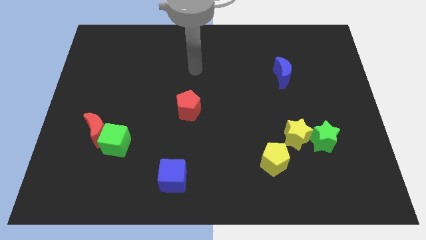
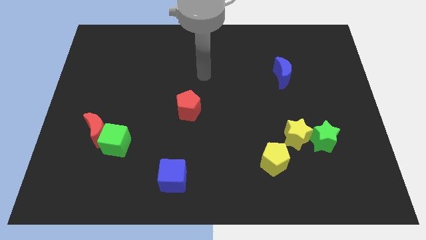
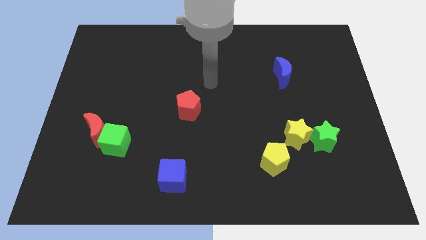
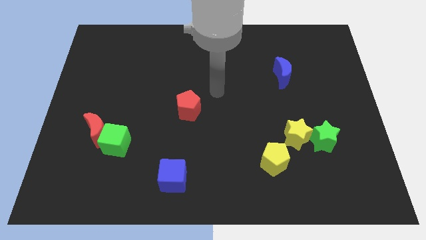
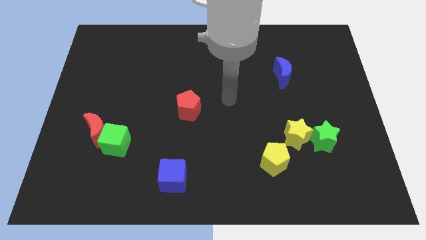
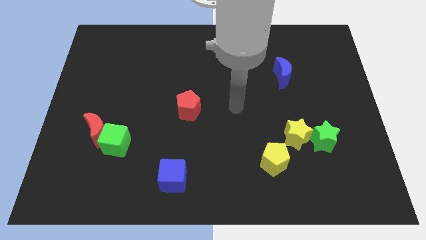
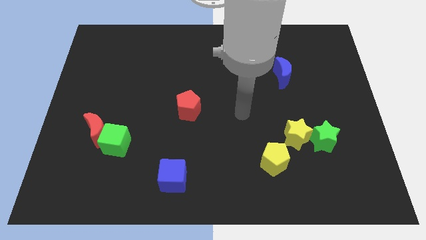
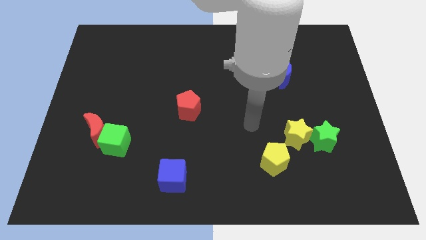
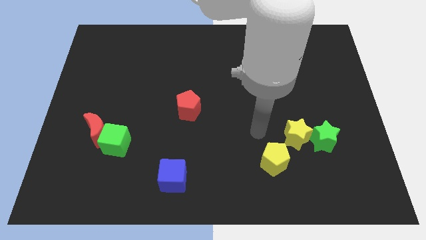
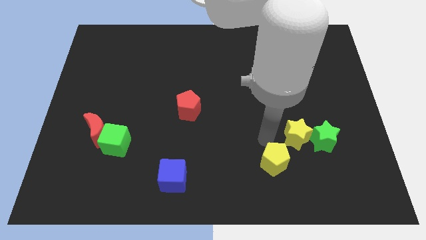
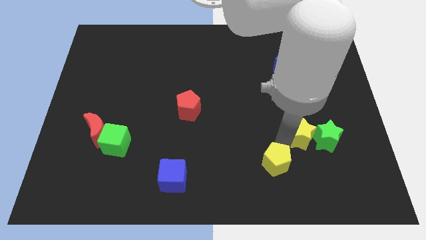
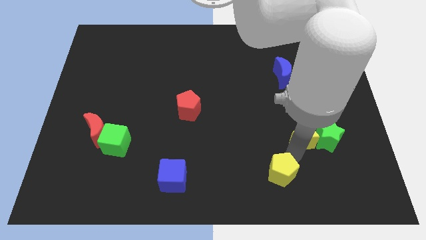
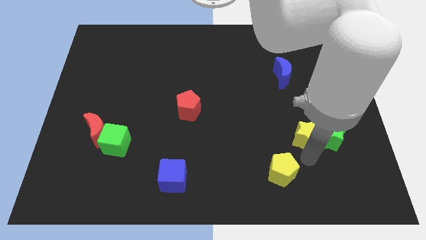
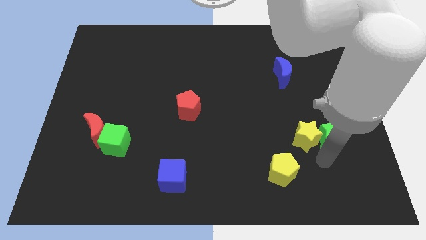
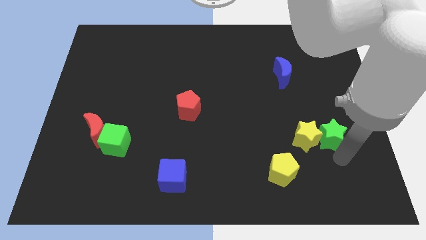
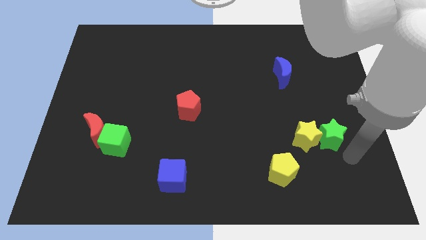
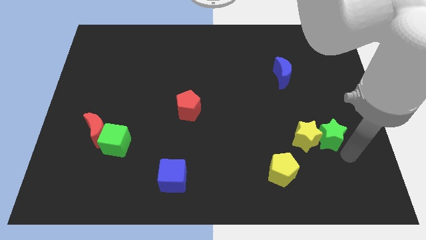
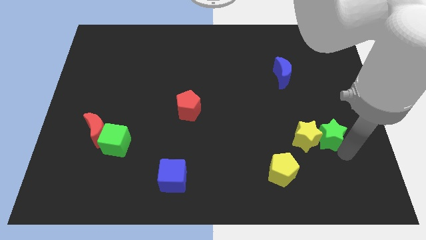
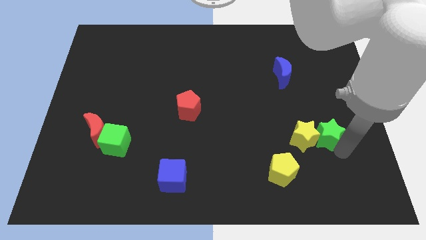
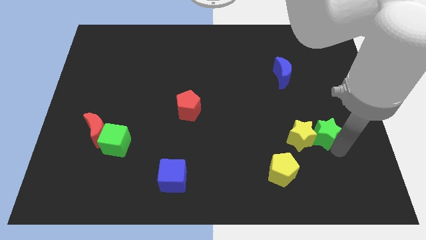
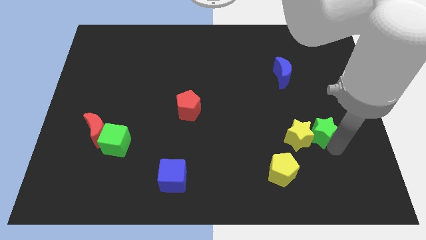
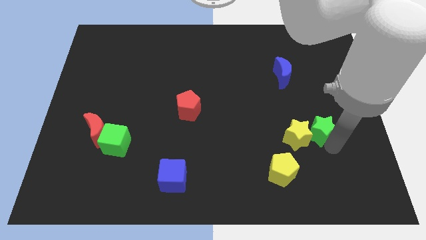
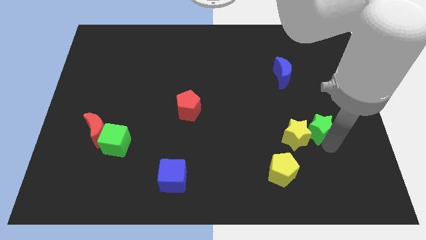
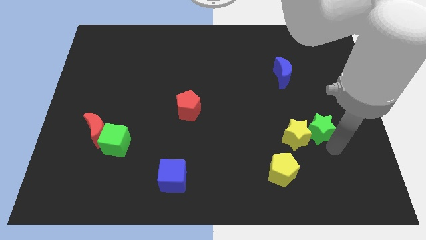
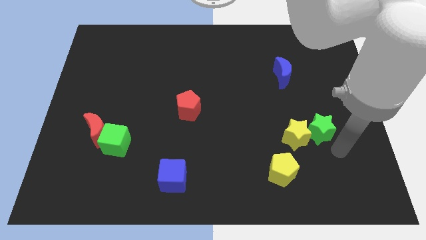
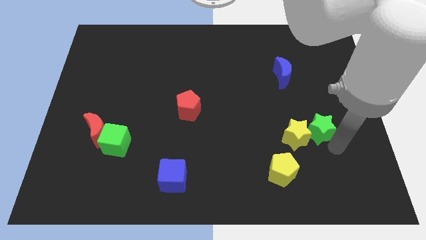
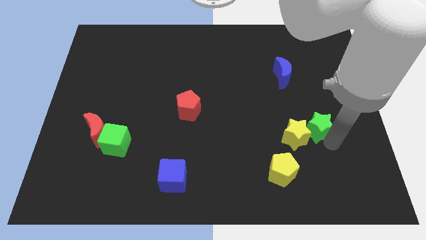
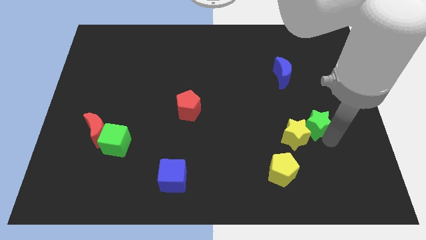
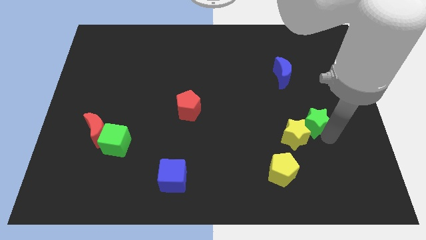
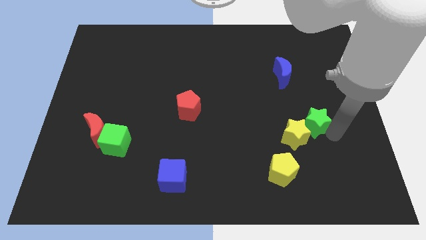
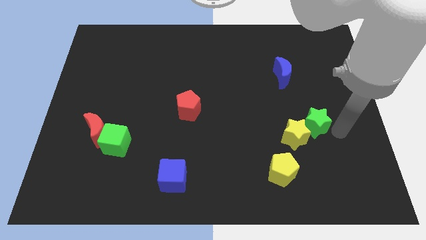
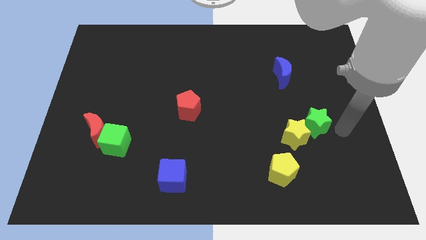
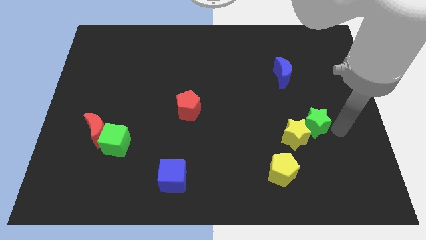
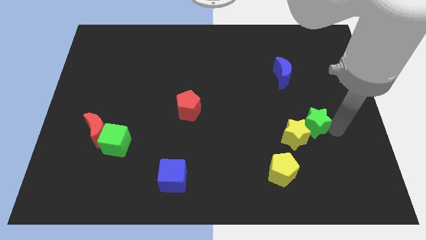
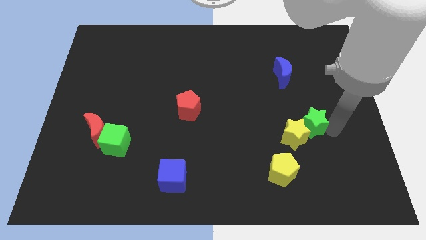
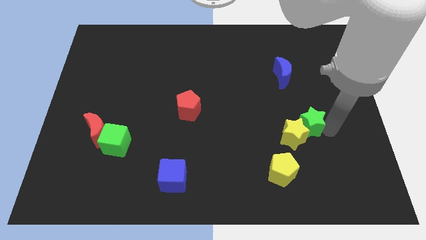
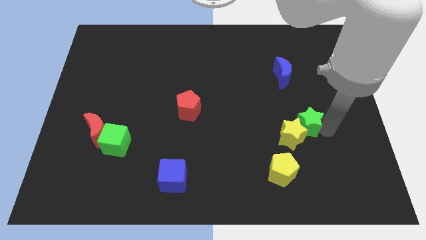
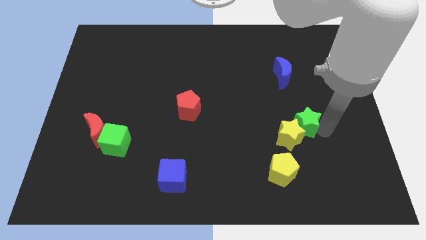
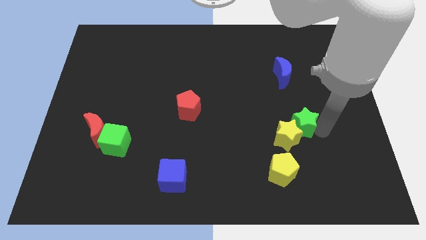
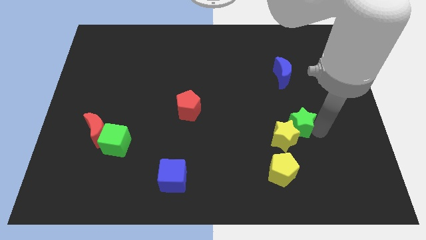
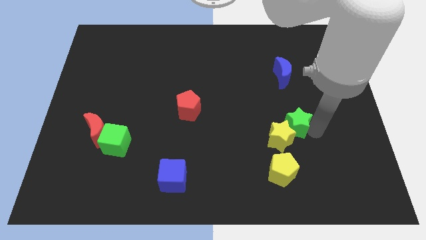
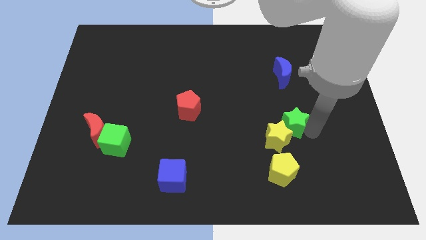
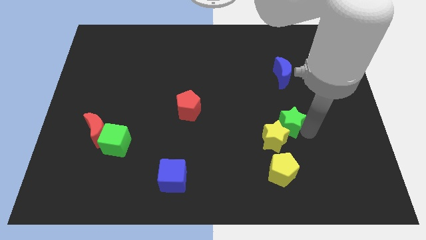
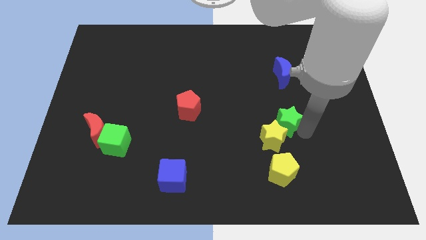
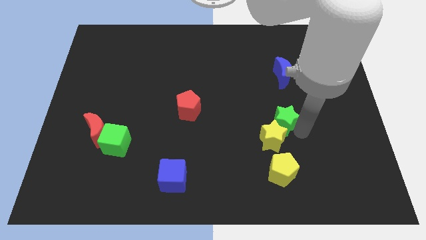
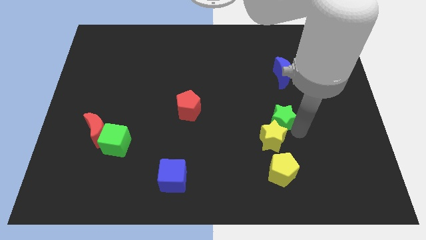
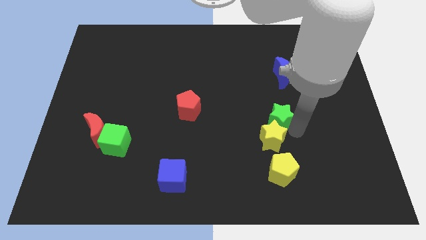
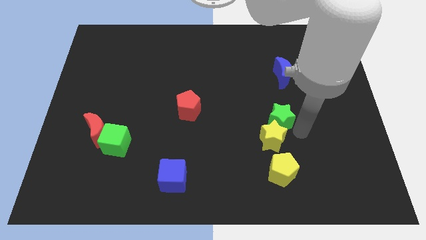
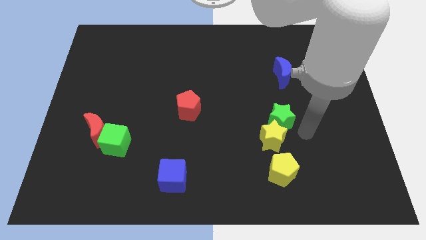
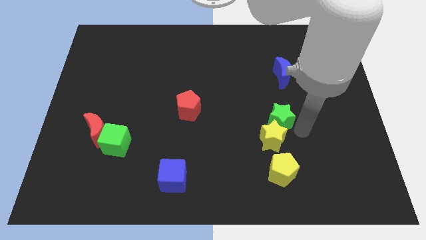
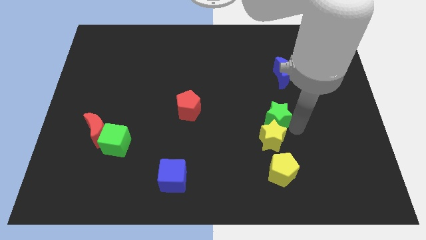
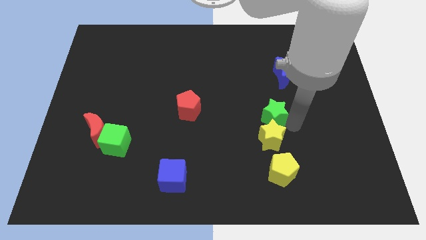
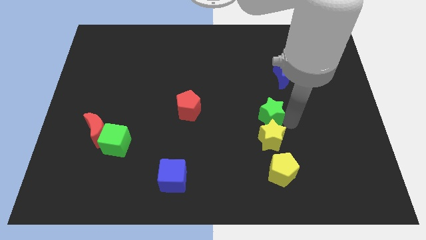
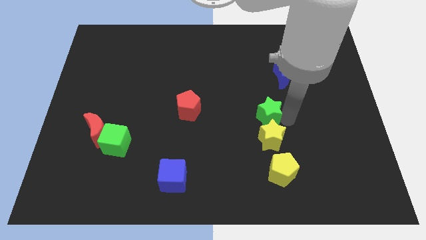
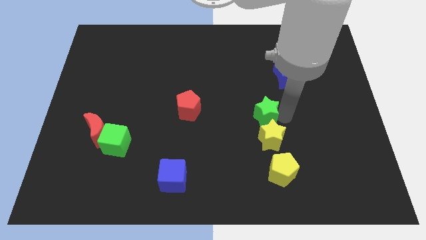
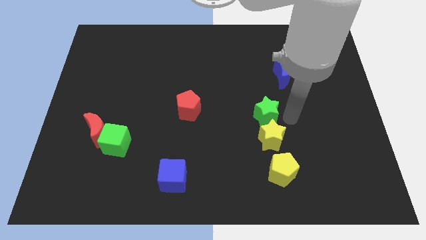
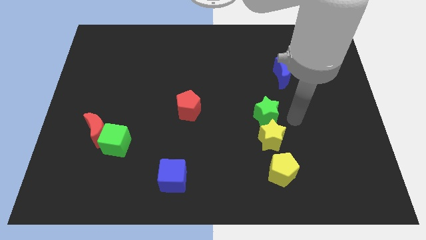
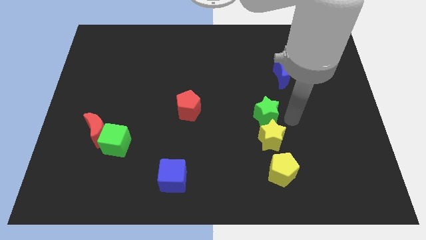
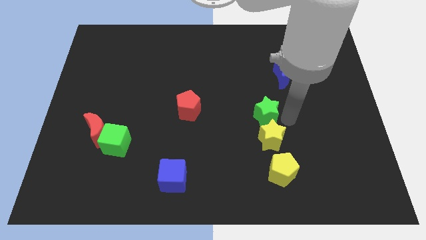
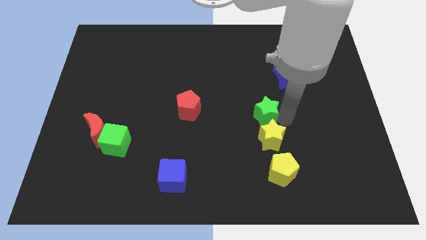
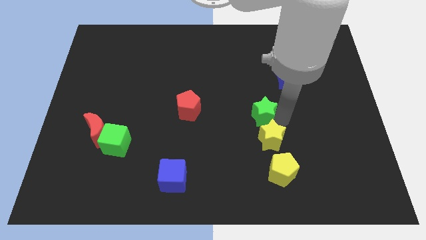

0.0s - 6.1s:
put the green star to the center
